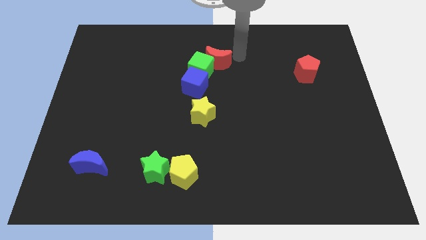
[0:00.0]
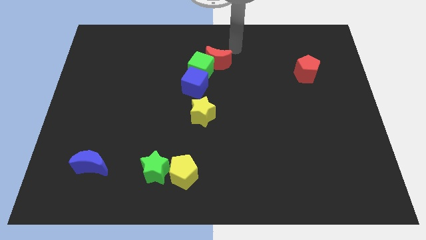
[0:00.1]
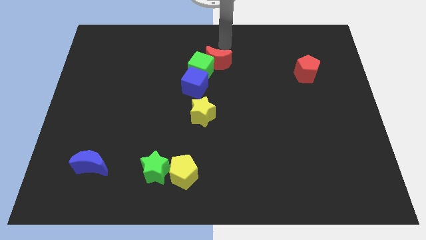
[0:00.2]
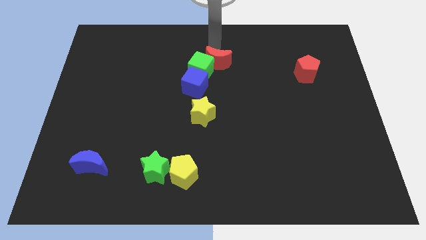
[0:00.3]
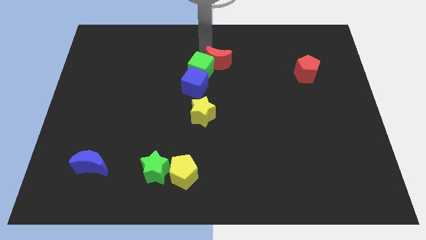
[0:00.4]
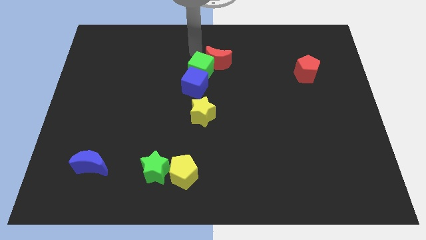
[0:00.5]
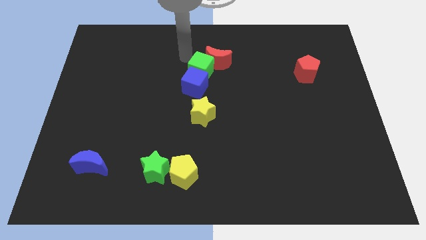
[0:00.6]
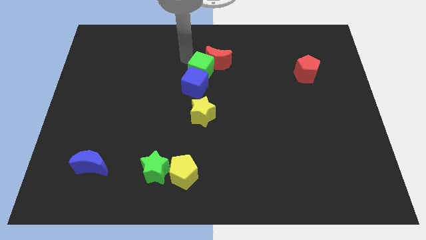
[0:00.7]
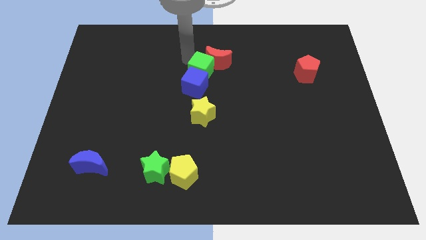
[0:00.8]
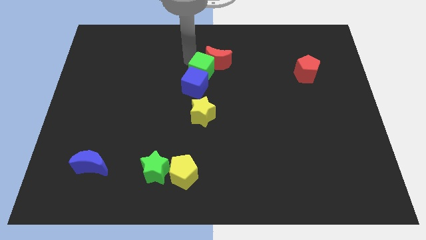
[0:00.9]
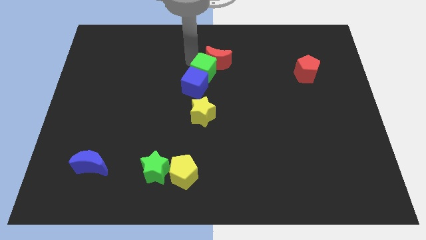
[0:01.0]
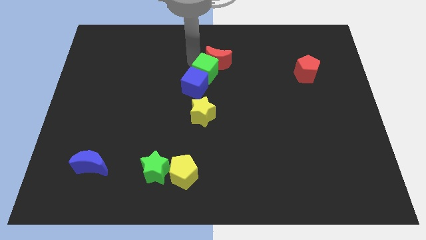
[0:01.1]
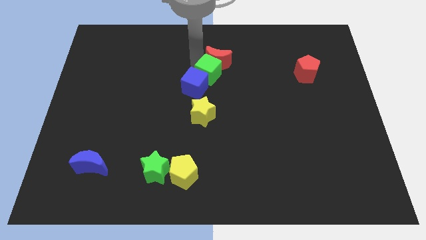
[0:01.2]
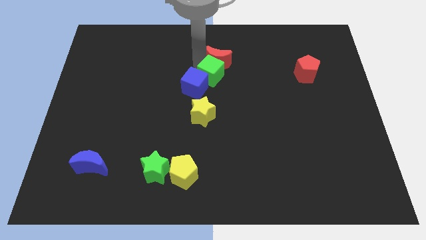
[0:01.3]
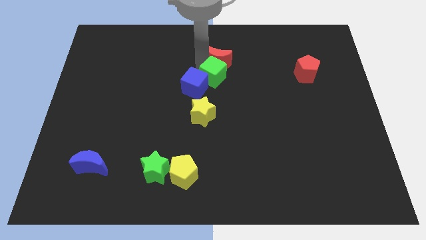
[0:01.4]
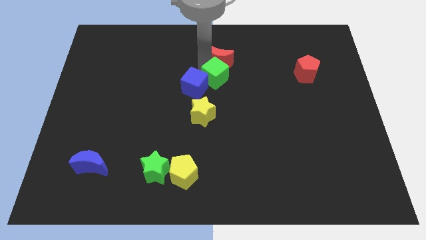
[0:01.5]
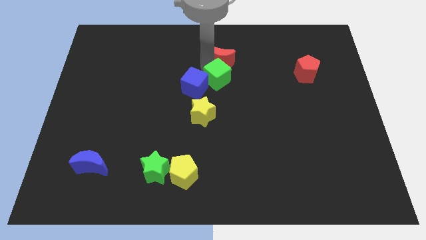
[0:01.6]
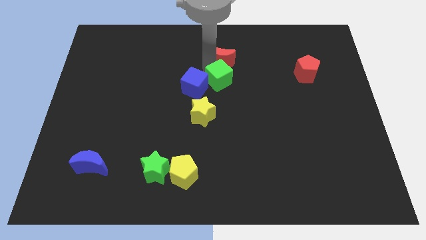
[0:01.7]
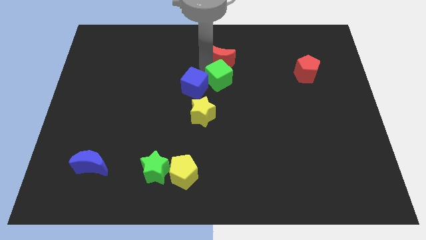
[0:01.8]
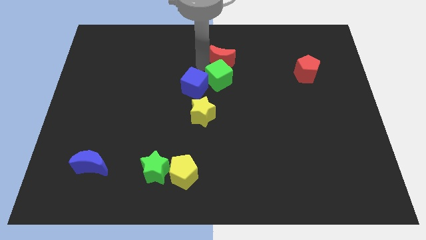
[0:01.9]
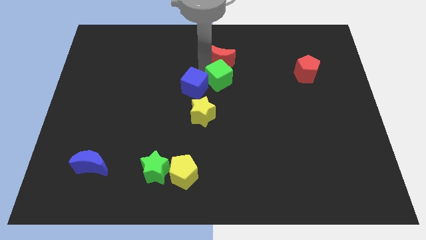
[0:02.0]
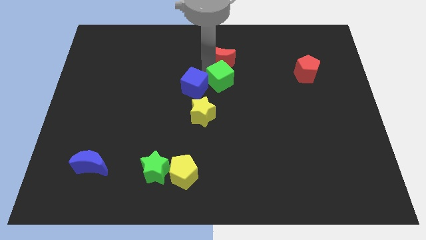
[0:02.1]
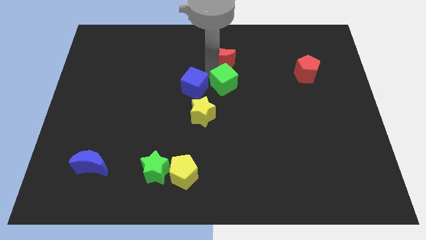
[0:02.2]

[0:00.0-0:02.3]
slide the green cube somewhat diagonally down and right

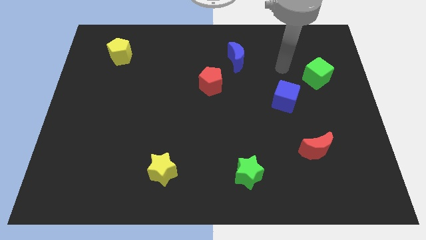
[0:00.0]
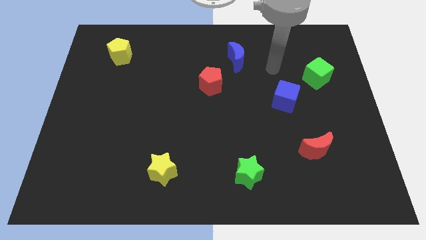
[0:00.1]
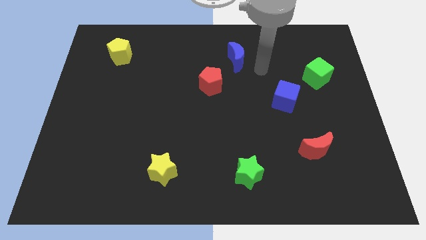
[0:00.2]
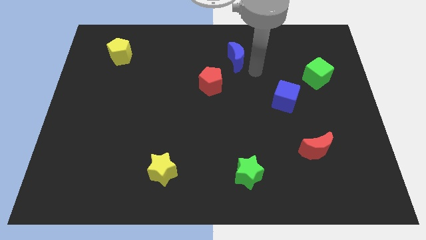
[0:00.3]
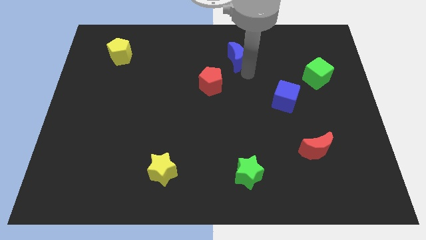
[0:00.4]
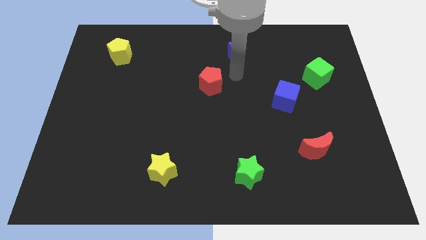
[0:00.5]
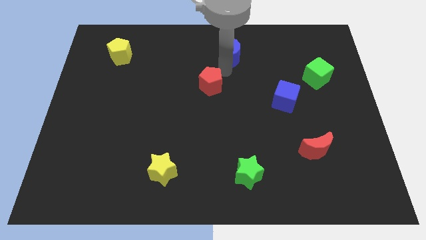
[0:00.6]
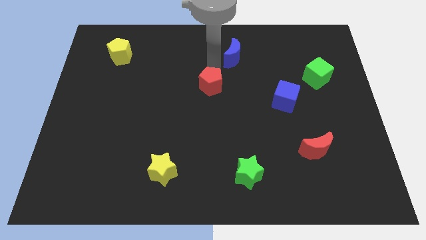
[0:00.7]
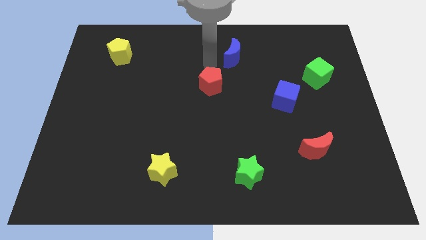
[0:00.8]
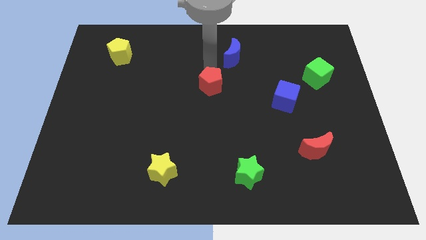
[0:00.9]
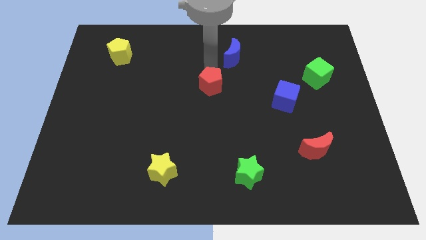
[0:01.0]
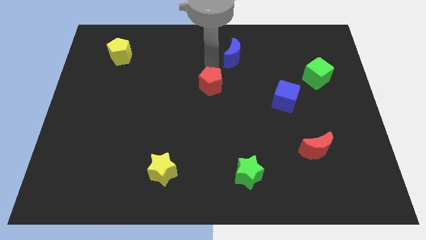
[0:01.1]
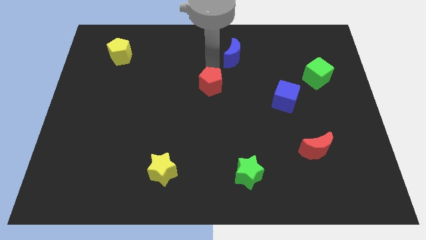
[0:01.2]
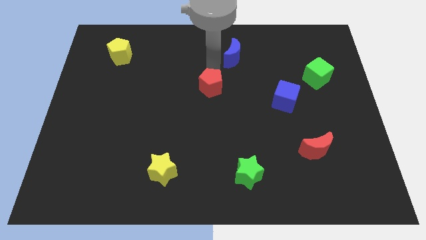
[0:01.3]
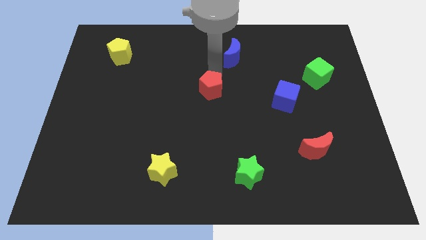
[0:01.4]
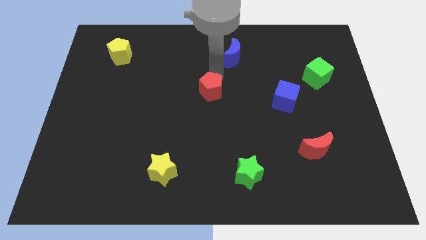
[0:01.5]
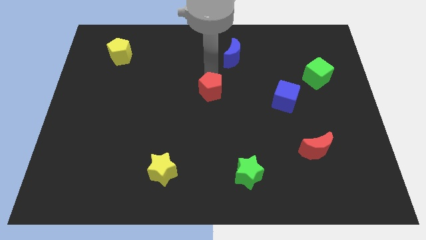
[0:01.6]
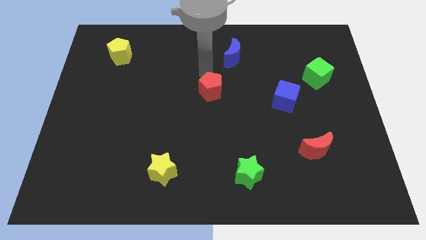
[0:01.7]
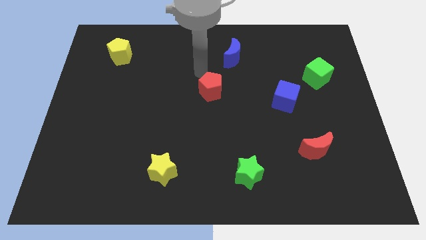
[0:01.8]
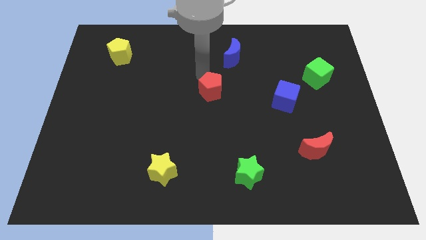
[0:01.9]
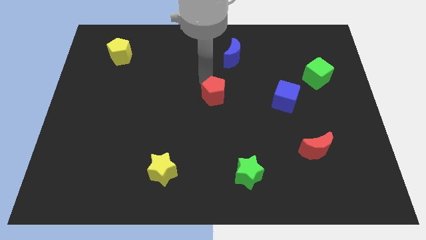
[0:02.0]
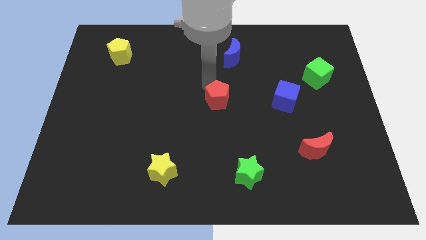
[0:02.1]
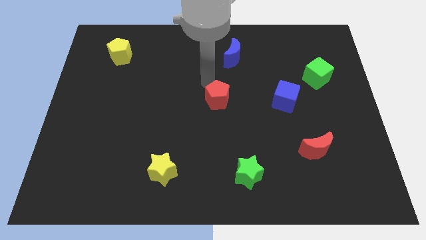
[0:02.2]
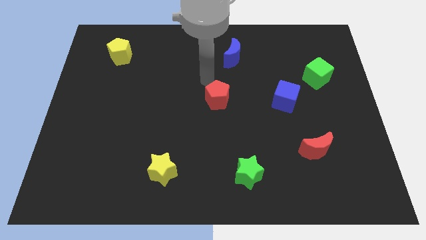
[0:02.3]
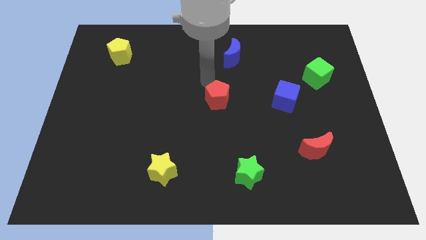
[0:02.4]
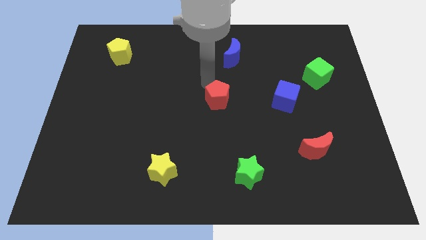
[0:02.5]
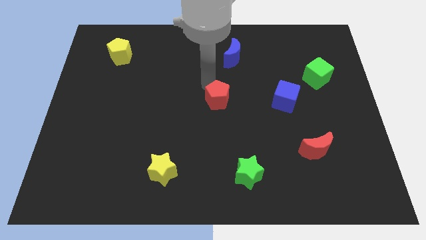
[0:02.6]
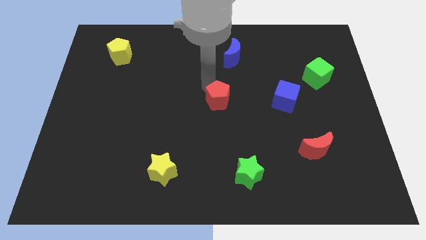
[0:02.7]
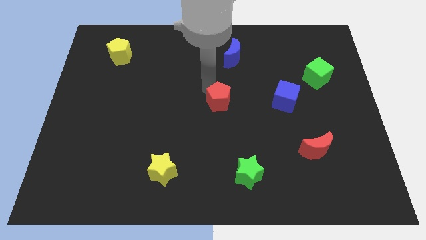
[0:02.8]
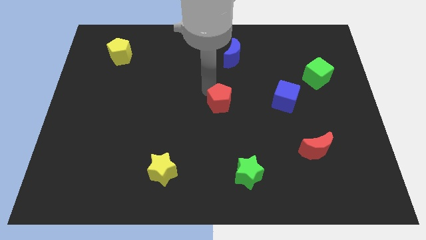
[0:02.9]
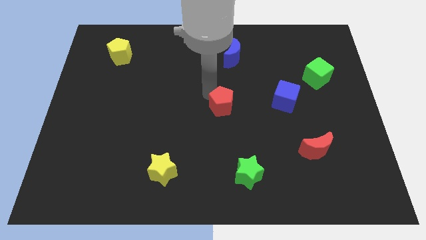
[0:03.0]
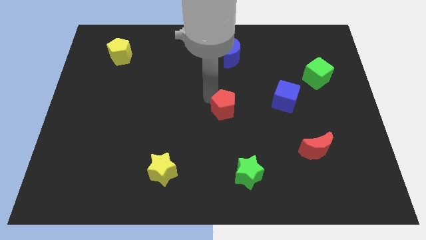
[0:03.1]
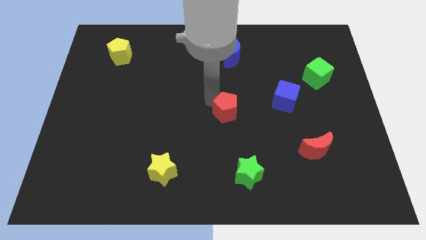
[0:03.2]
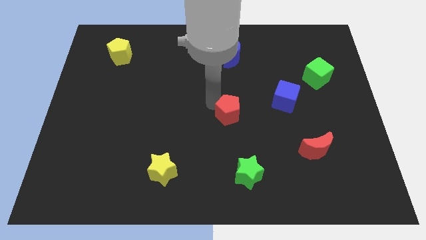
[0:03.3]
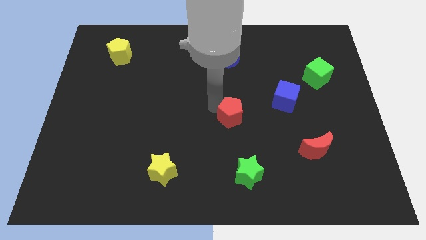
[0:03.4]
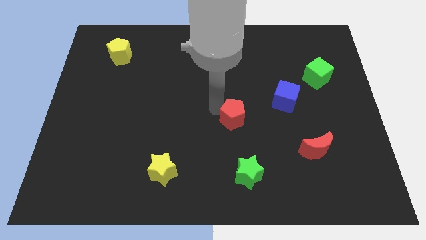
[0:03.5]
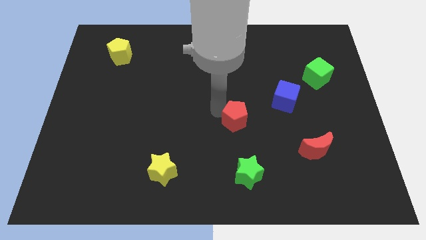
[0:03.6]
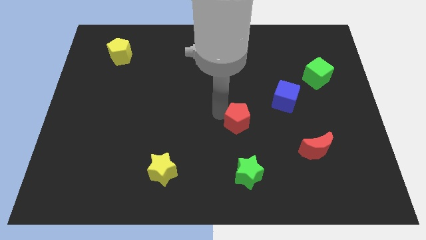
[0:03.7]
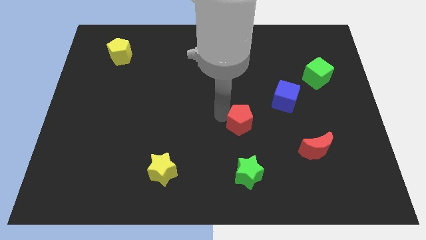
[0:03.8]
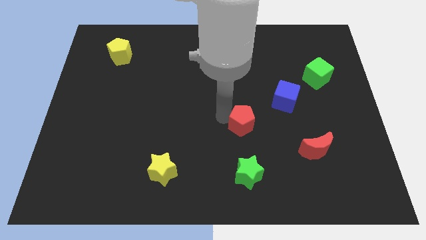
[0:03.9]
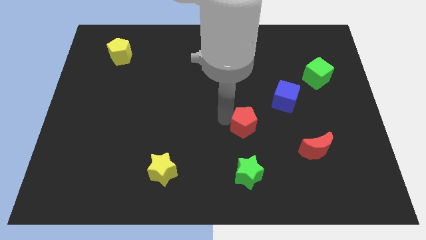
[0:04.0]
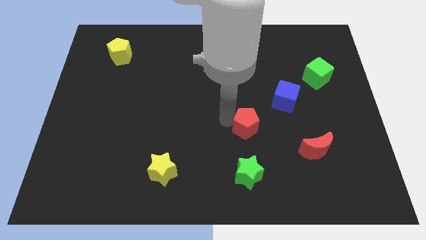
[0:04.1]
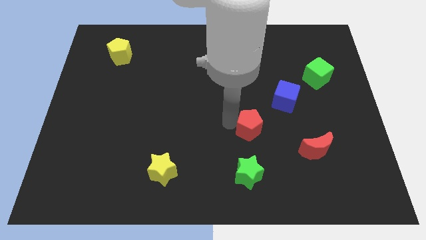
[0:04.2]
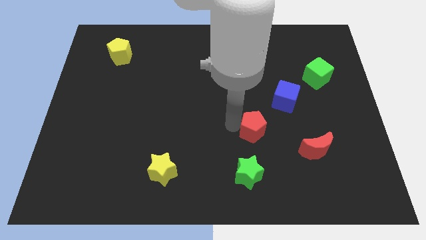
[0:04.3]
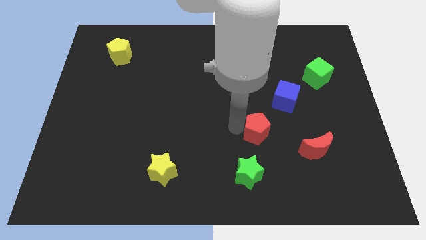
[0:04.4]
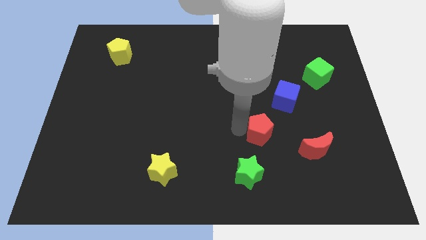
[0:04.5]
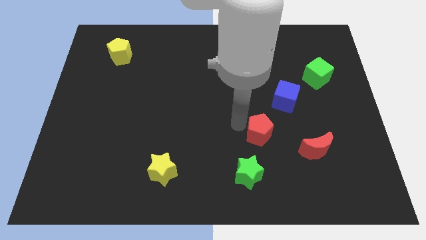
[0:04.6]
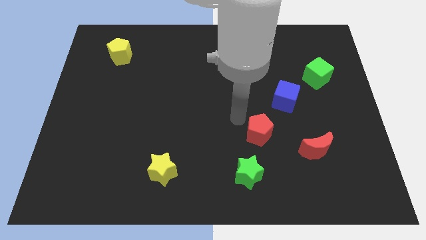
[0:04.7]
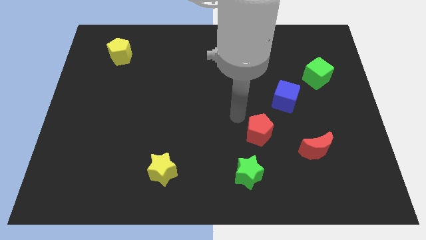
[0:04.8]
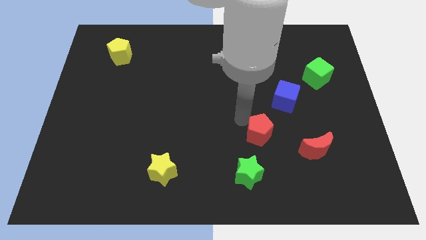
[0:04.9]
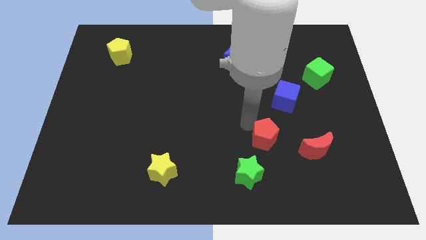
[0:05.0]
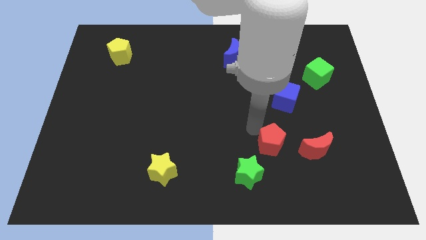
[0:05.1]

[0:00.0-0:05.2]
push the red pentagon diagonally downwards and to the right

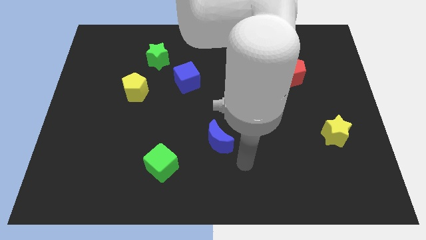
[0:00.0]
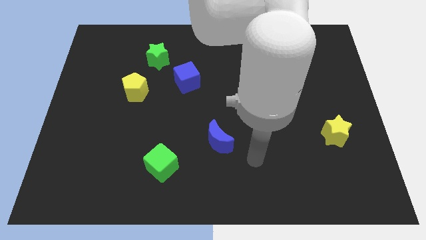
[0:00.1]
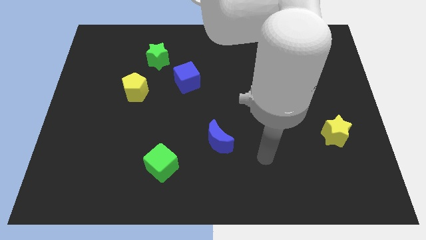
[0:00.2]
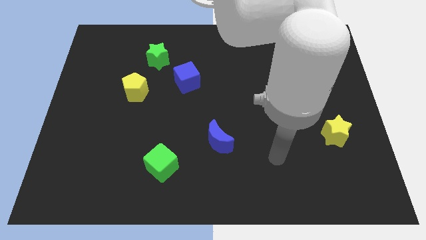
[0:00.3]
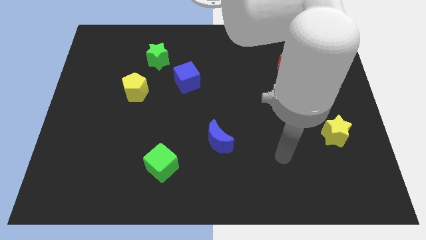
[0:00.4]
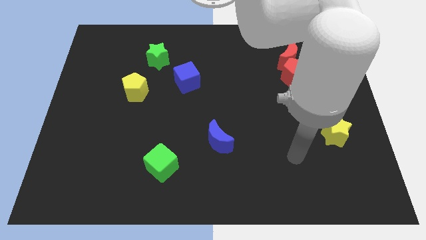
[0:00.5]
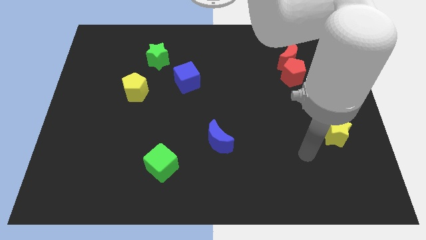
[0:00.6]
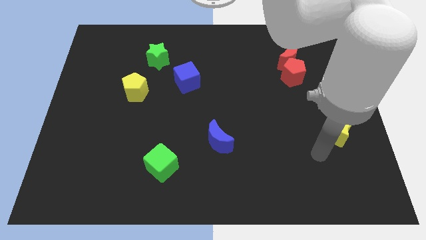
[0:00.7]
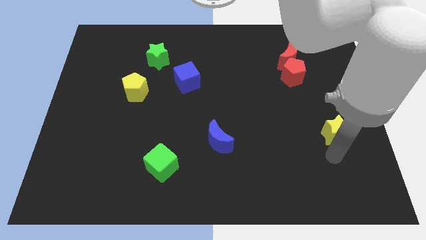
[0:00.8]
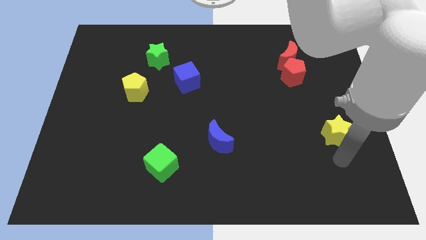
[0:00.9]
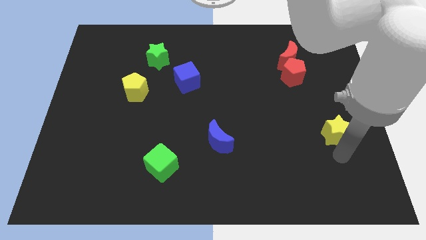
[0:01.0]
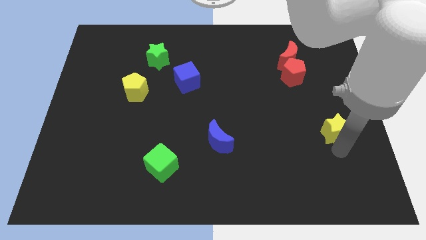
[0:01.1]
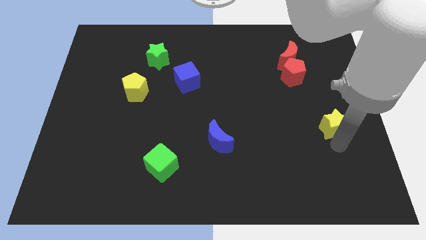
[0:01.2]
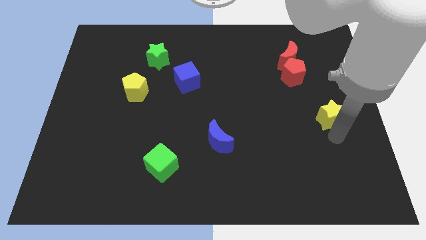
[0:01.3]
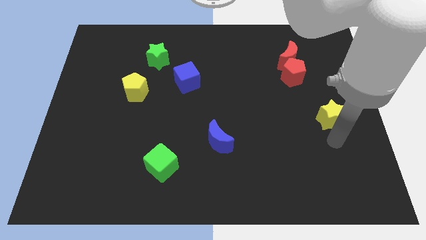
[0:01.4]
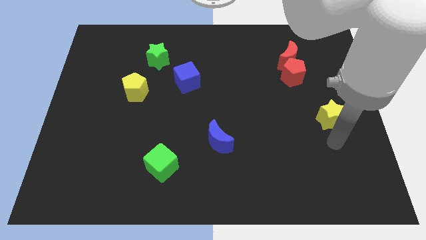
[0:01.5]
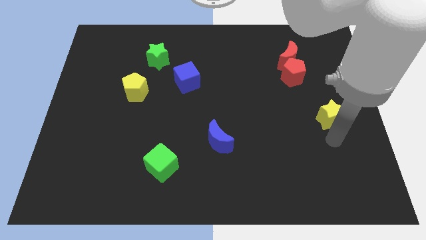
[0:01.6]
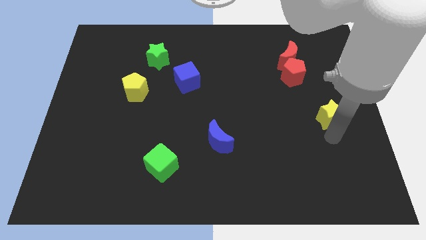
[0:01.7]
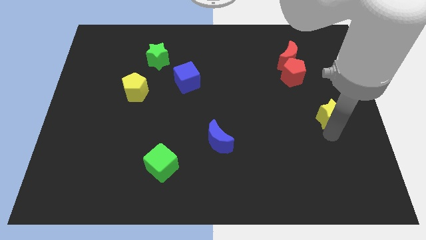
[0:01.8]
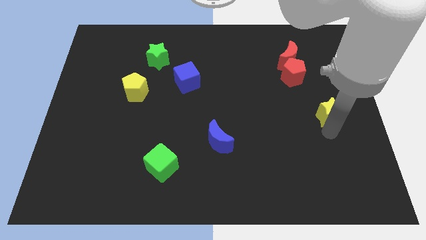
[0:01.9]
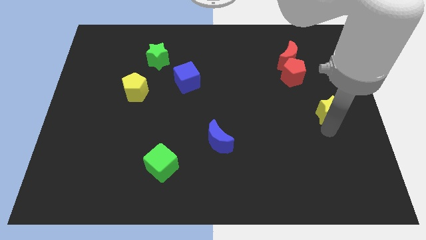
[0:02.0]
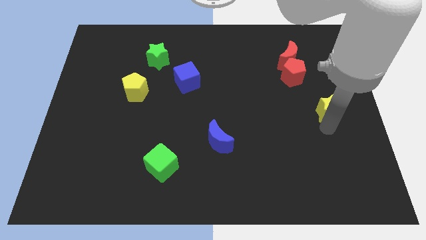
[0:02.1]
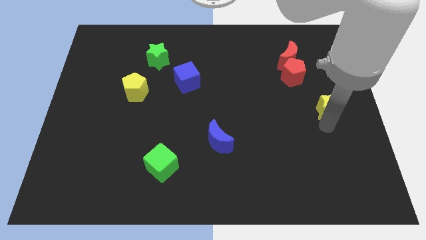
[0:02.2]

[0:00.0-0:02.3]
move the yellow star up somewhat
